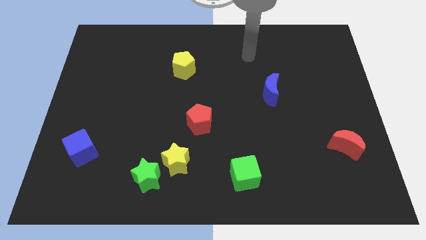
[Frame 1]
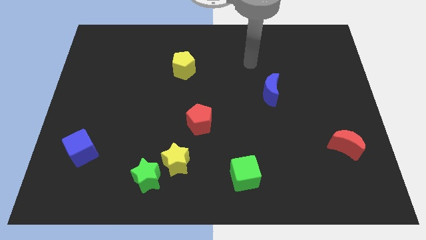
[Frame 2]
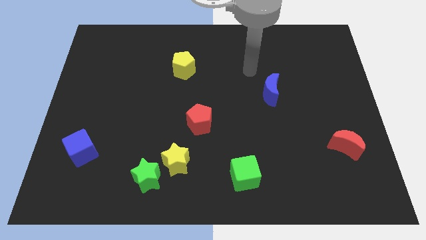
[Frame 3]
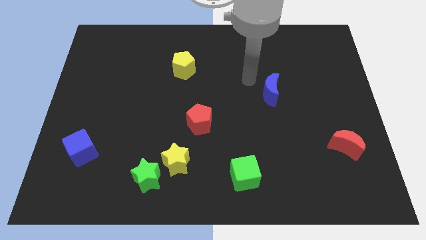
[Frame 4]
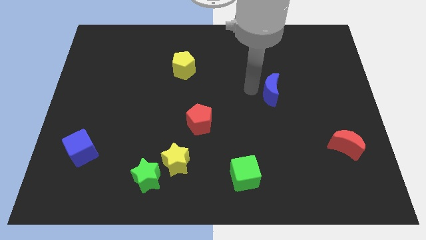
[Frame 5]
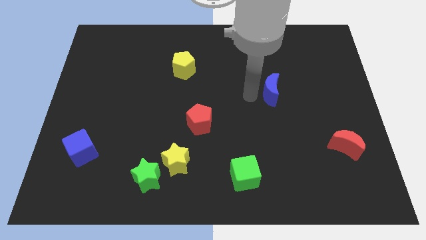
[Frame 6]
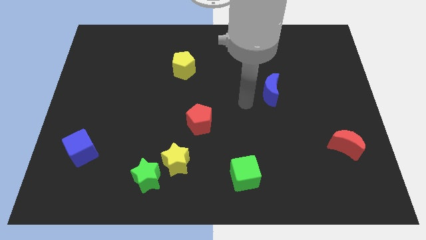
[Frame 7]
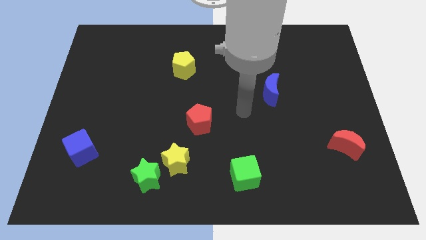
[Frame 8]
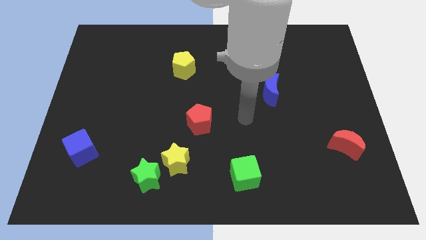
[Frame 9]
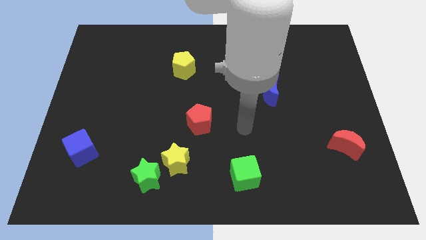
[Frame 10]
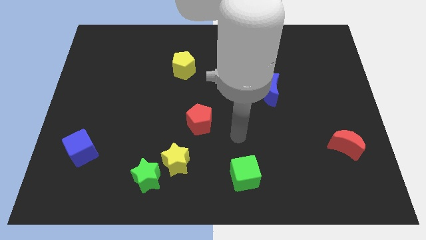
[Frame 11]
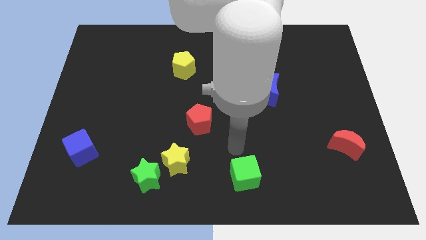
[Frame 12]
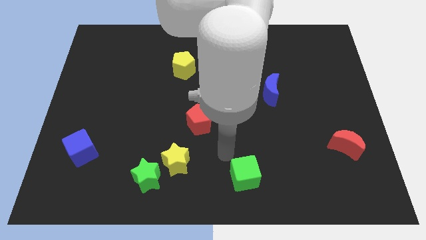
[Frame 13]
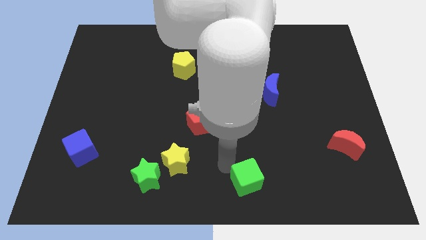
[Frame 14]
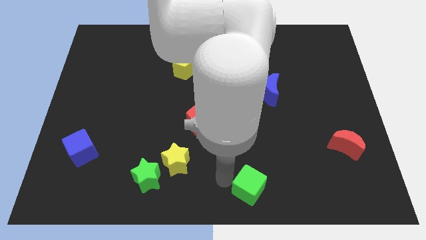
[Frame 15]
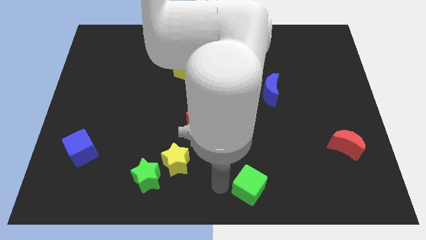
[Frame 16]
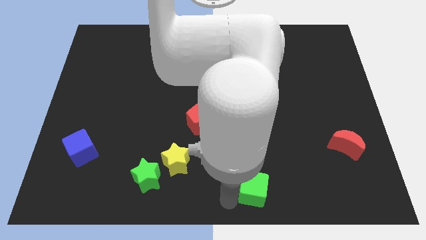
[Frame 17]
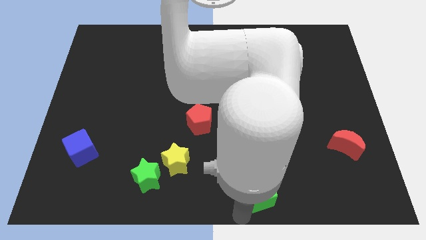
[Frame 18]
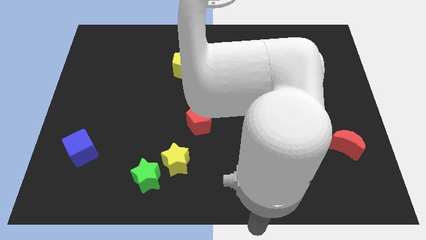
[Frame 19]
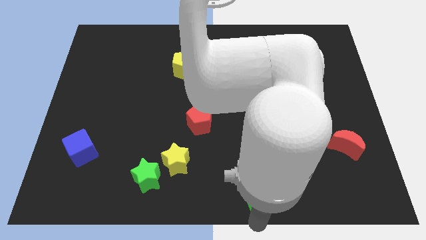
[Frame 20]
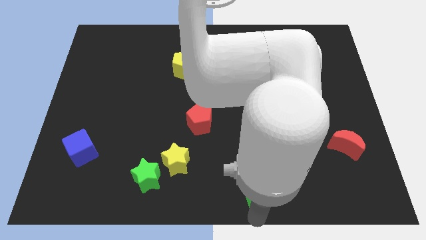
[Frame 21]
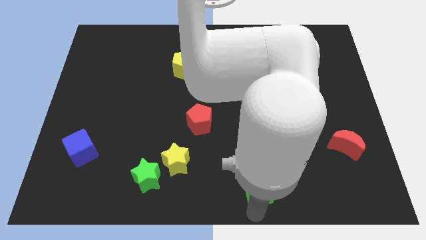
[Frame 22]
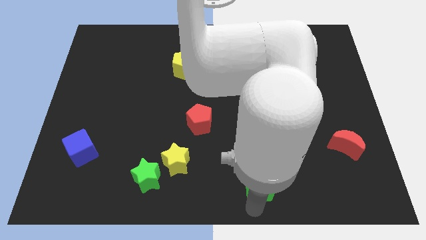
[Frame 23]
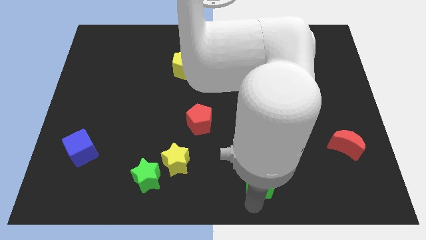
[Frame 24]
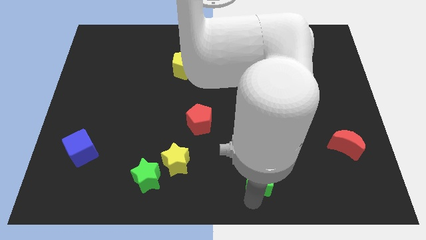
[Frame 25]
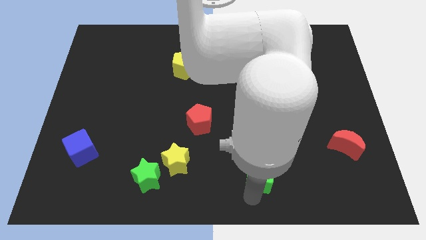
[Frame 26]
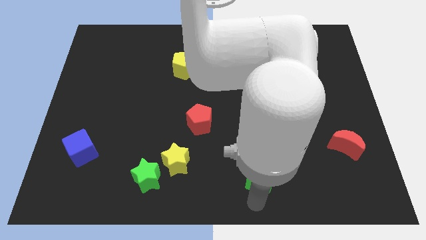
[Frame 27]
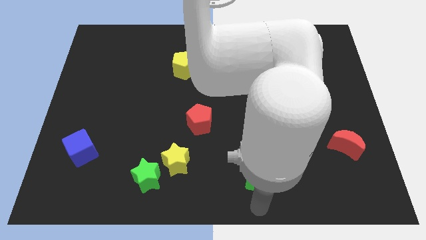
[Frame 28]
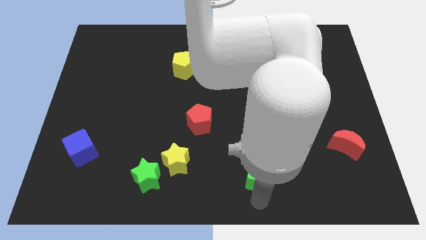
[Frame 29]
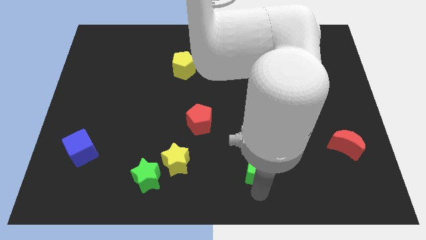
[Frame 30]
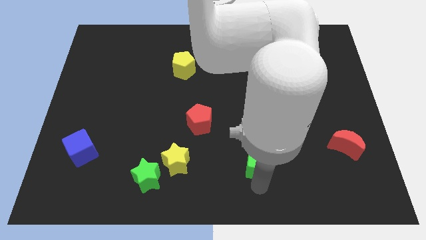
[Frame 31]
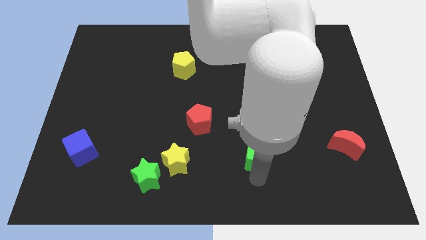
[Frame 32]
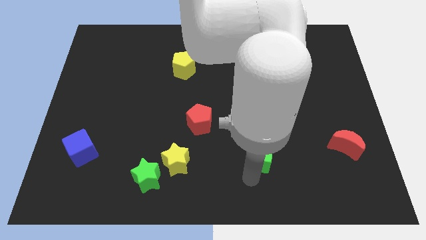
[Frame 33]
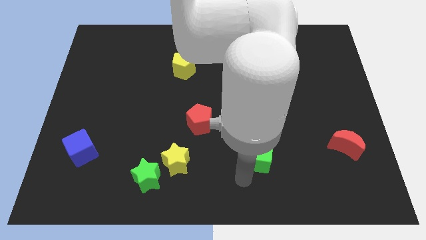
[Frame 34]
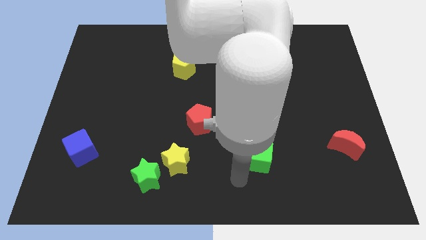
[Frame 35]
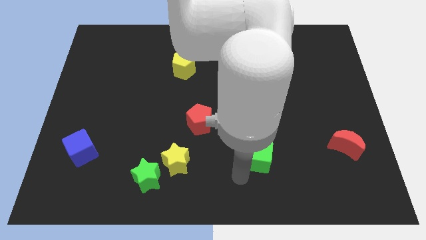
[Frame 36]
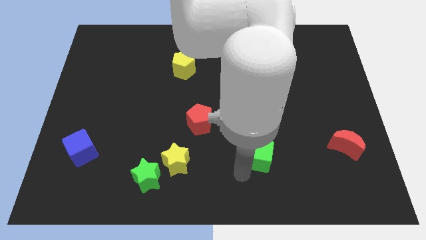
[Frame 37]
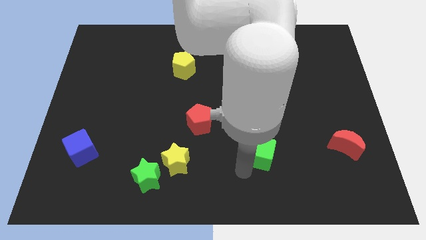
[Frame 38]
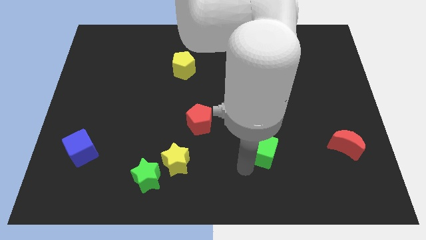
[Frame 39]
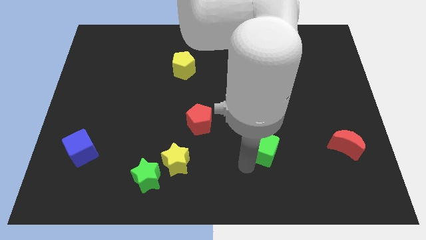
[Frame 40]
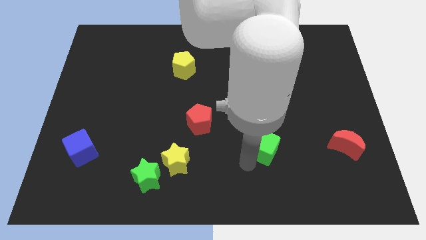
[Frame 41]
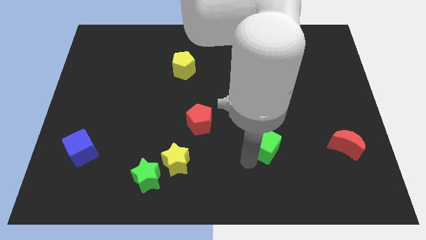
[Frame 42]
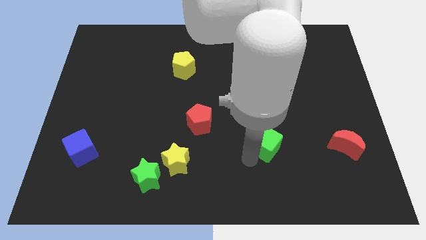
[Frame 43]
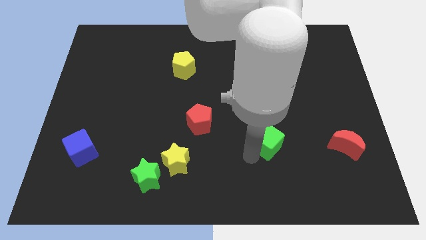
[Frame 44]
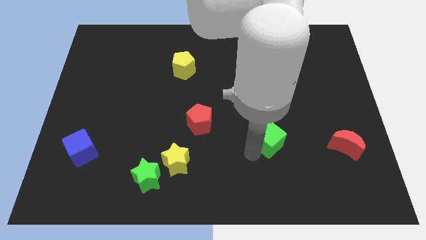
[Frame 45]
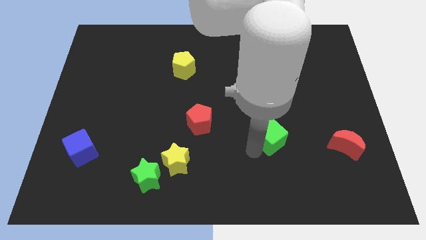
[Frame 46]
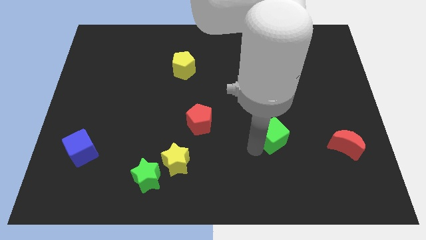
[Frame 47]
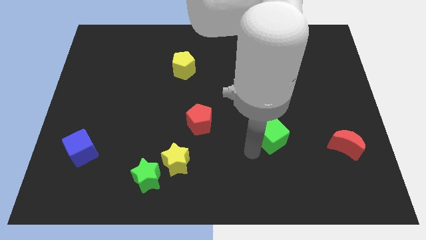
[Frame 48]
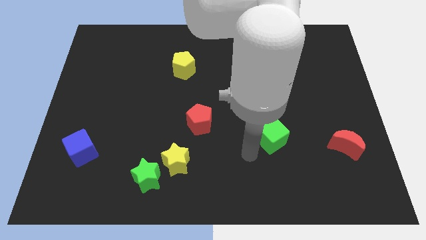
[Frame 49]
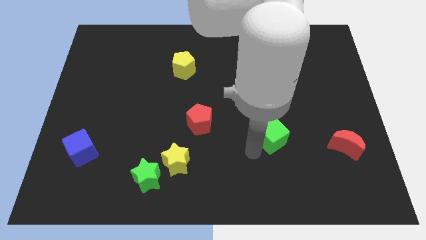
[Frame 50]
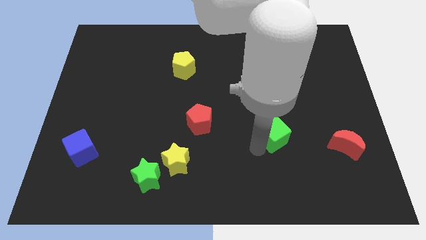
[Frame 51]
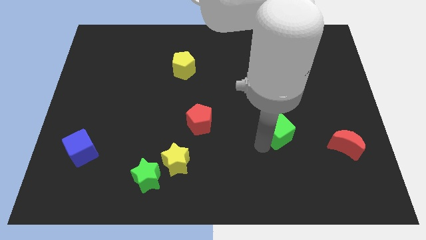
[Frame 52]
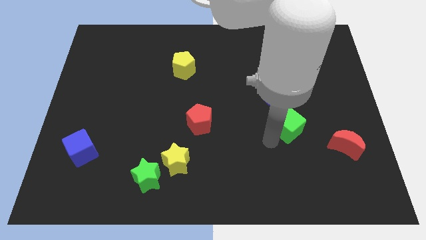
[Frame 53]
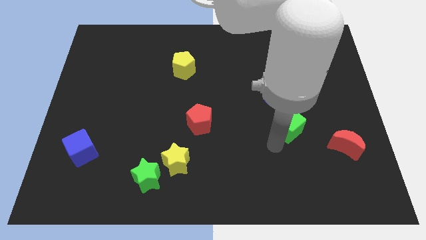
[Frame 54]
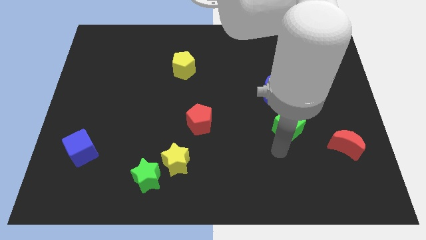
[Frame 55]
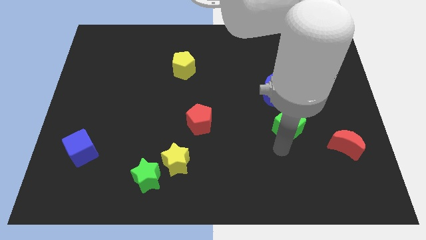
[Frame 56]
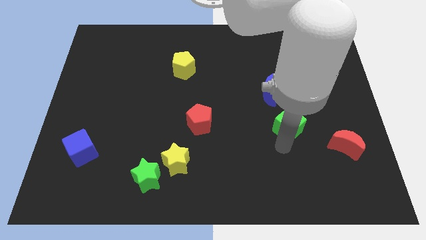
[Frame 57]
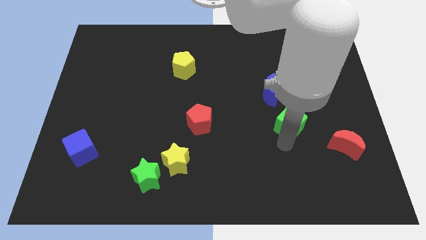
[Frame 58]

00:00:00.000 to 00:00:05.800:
put the green cube diagonally down and to the right of the blue moon

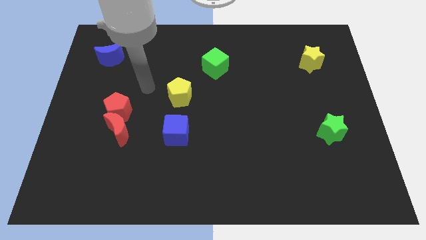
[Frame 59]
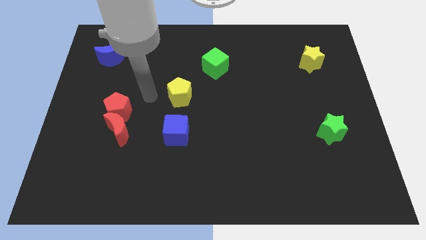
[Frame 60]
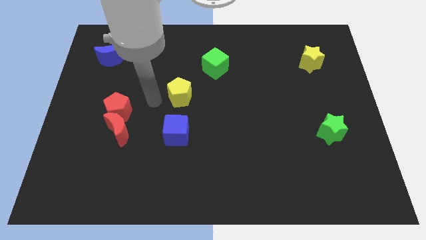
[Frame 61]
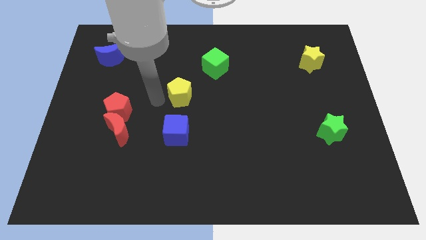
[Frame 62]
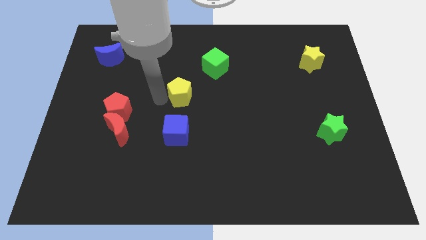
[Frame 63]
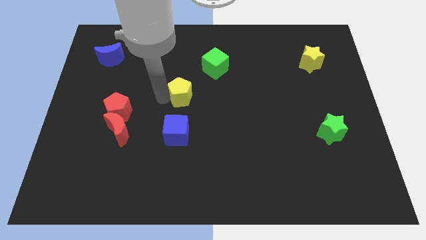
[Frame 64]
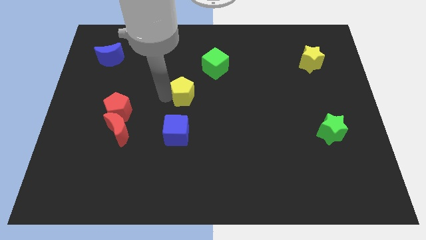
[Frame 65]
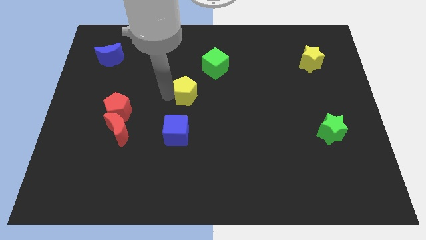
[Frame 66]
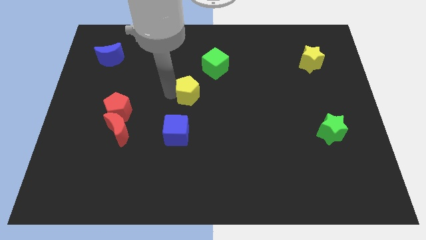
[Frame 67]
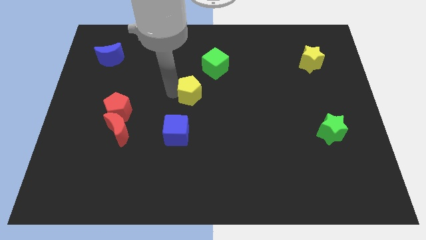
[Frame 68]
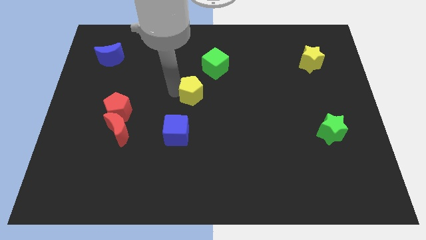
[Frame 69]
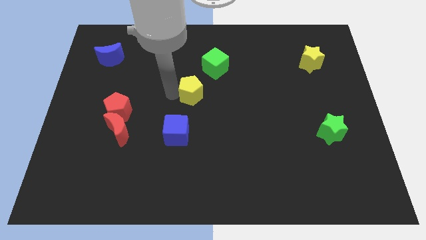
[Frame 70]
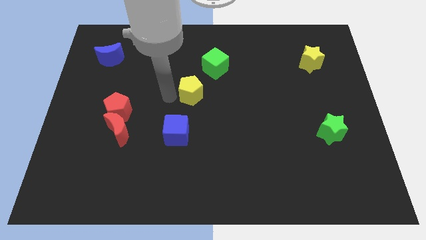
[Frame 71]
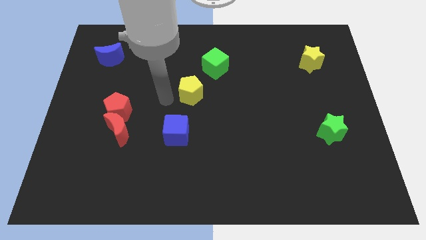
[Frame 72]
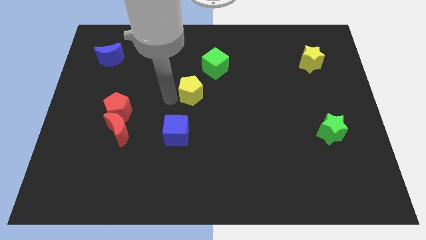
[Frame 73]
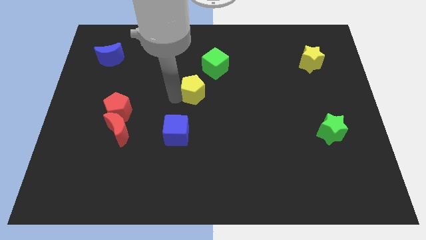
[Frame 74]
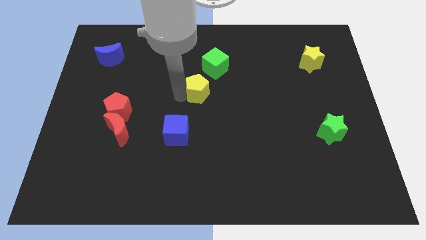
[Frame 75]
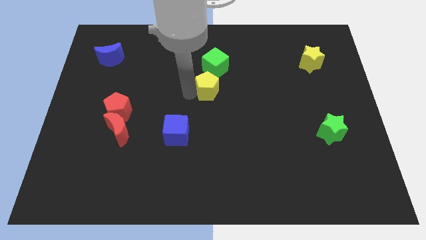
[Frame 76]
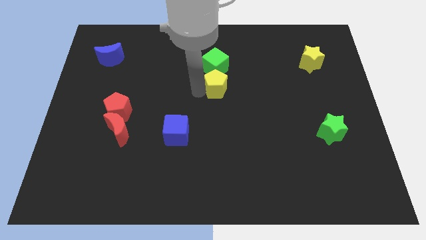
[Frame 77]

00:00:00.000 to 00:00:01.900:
slide the yellow pentagon to the bottom right of the green cube
